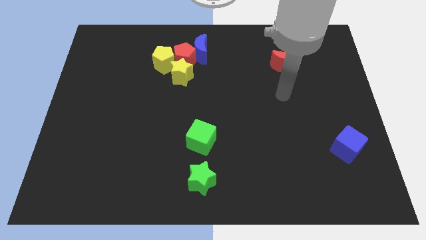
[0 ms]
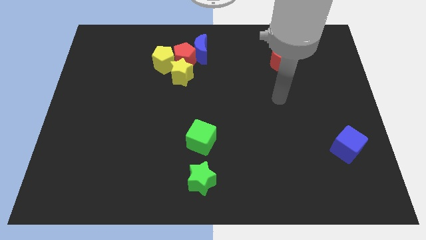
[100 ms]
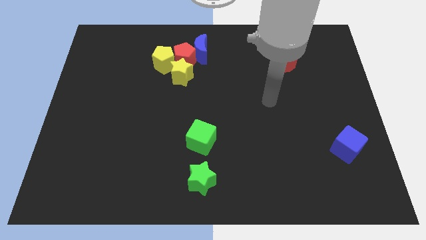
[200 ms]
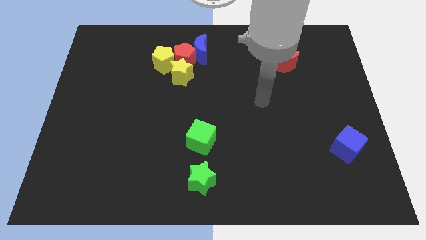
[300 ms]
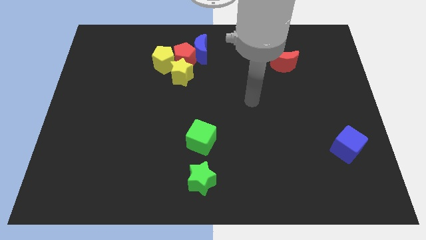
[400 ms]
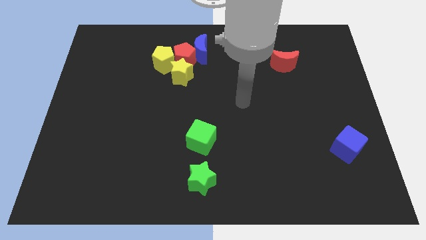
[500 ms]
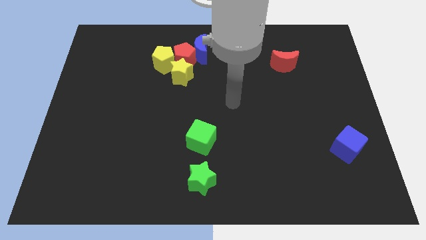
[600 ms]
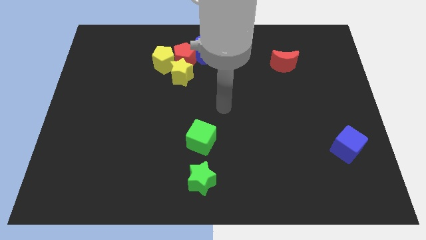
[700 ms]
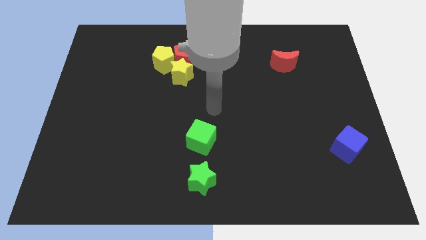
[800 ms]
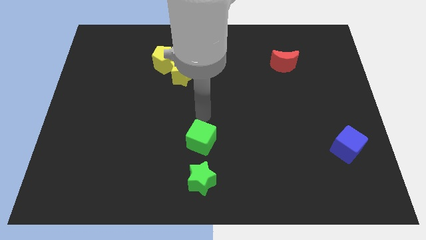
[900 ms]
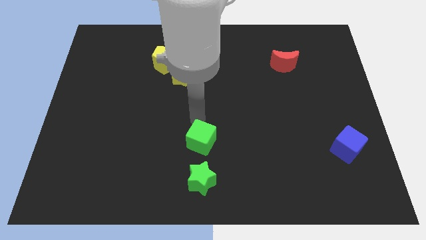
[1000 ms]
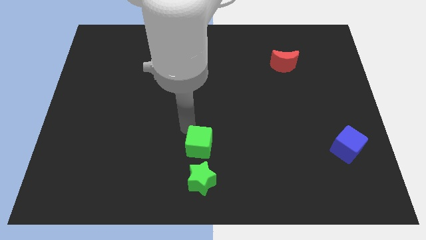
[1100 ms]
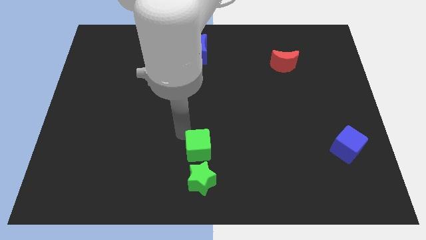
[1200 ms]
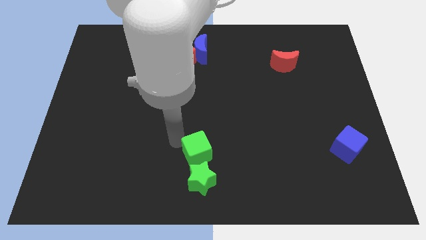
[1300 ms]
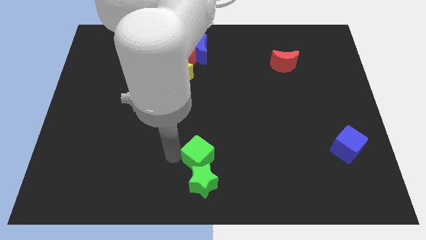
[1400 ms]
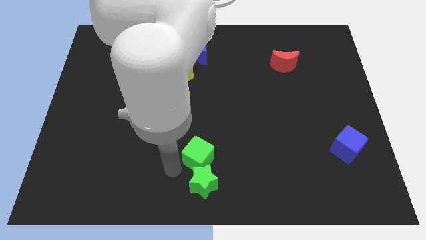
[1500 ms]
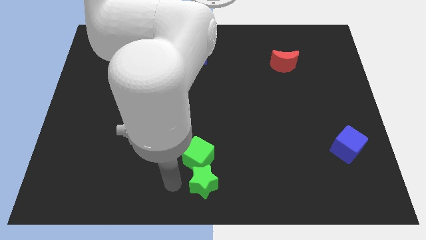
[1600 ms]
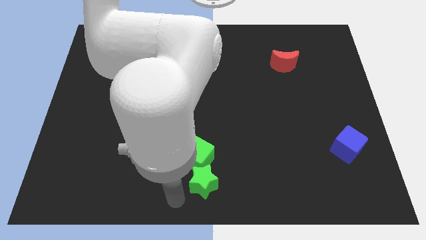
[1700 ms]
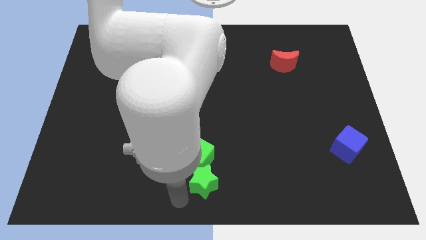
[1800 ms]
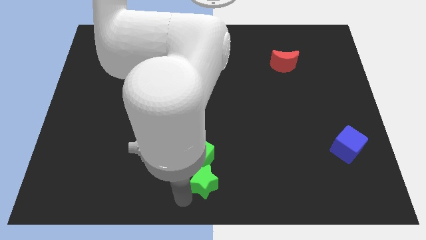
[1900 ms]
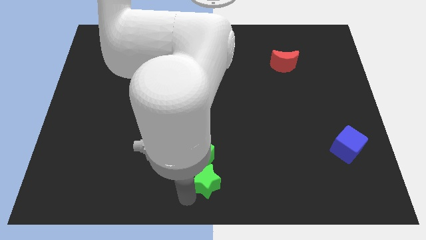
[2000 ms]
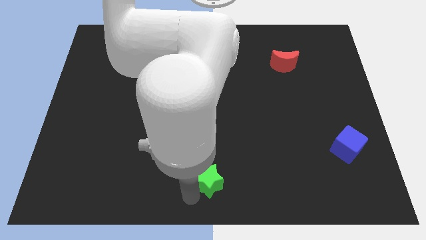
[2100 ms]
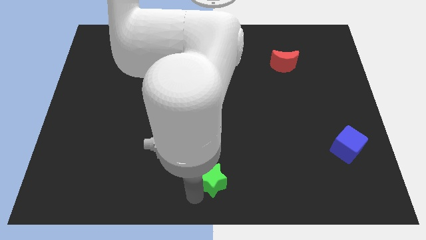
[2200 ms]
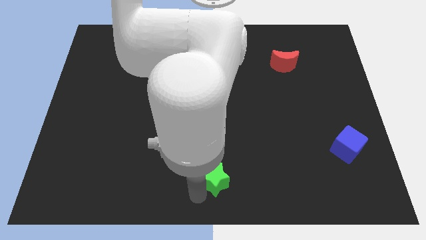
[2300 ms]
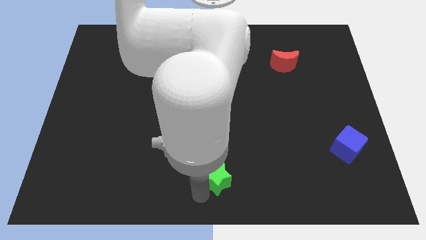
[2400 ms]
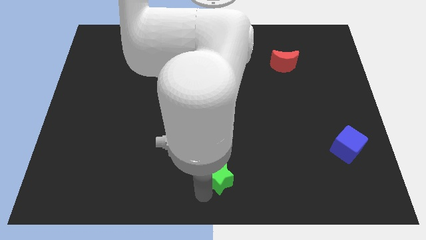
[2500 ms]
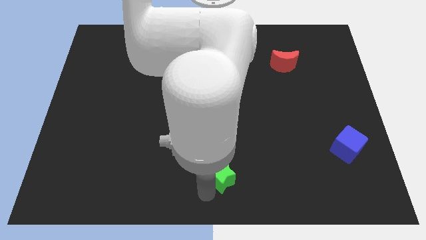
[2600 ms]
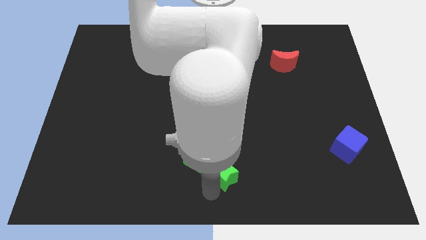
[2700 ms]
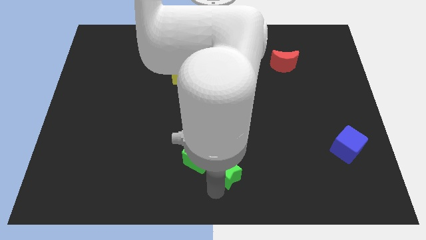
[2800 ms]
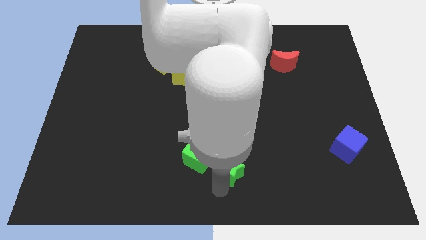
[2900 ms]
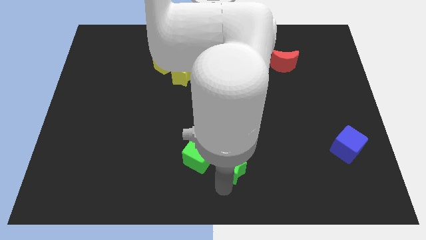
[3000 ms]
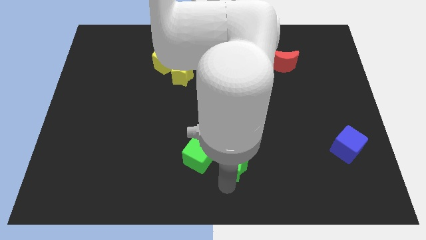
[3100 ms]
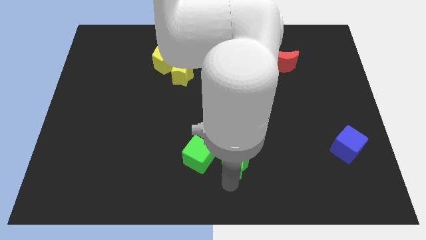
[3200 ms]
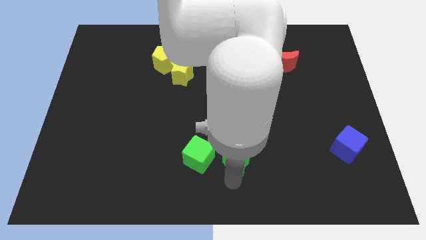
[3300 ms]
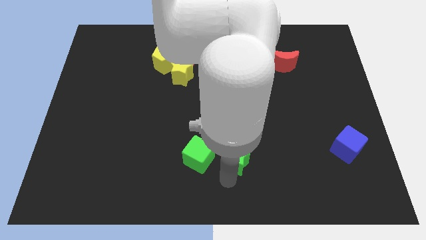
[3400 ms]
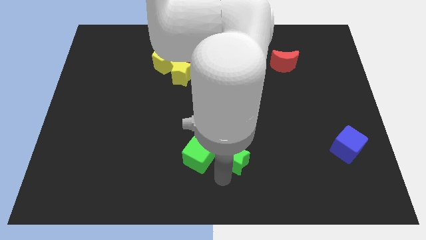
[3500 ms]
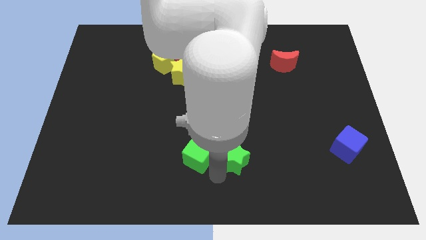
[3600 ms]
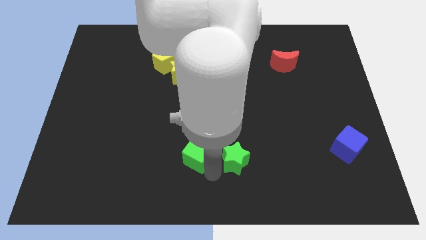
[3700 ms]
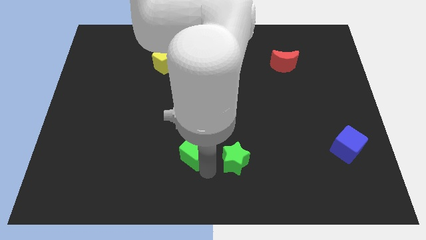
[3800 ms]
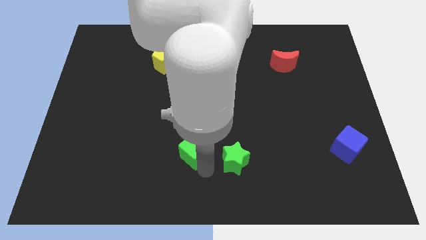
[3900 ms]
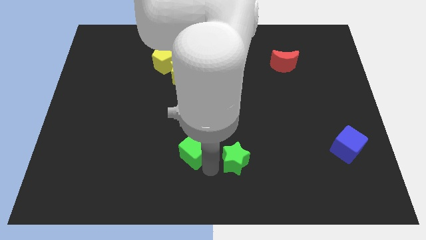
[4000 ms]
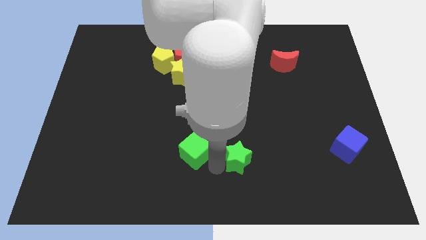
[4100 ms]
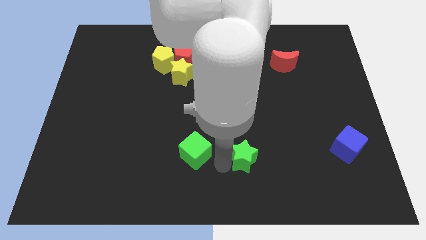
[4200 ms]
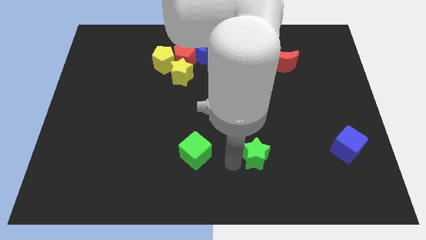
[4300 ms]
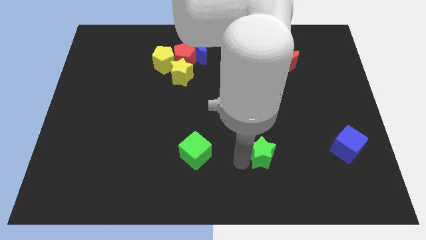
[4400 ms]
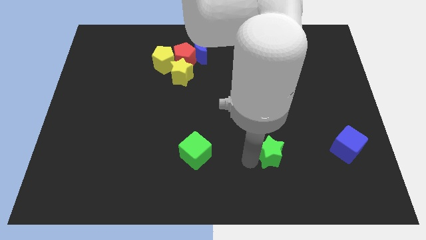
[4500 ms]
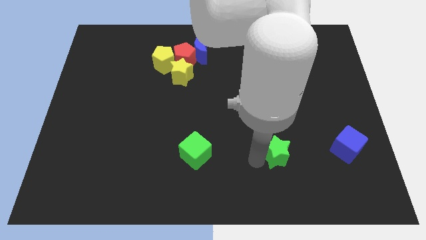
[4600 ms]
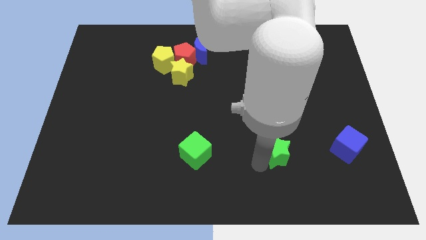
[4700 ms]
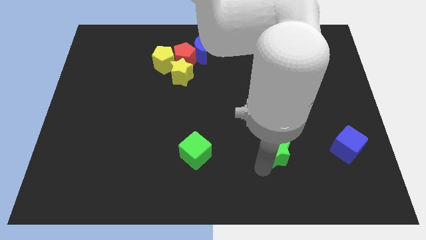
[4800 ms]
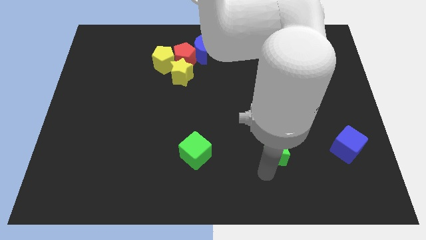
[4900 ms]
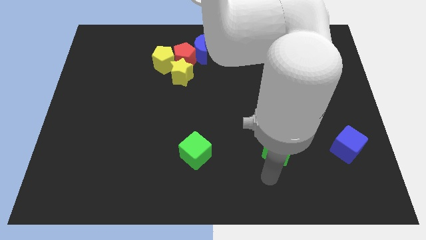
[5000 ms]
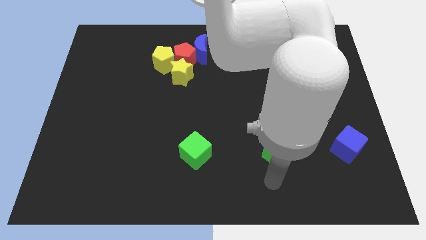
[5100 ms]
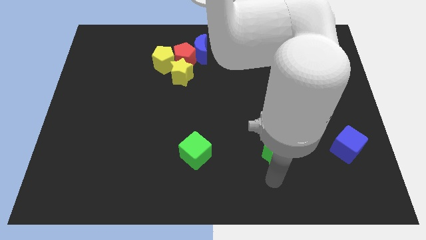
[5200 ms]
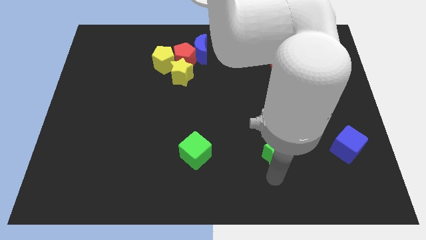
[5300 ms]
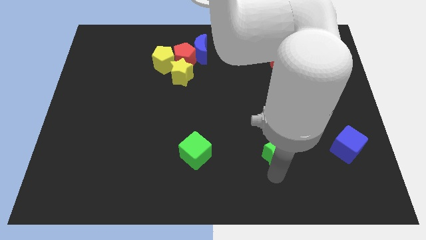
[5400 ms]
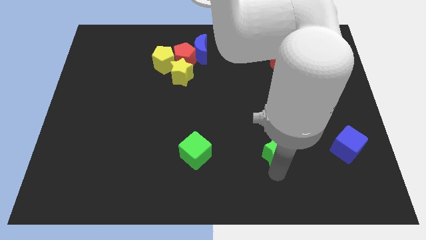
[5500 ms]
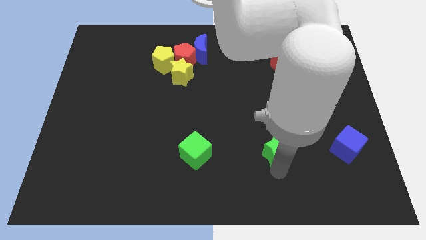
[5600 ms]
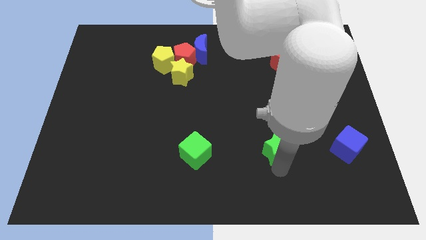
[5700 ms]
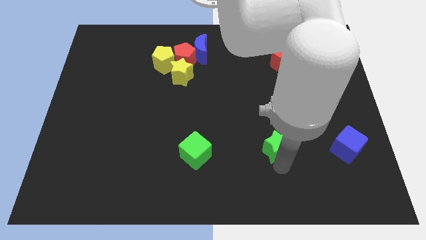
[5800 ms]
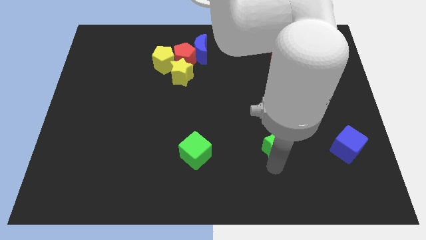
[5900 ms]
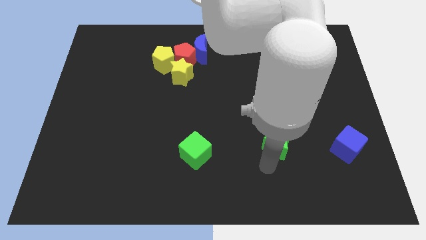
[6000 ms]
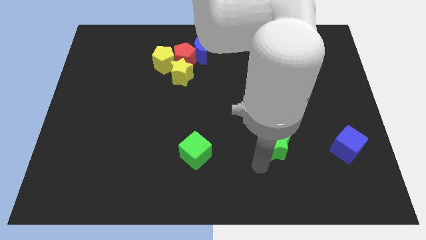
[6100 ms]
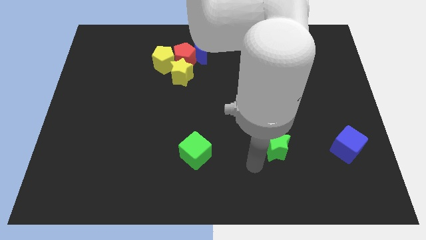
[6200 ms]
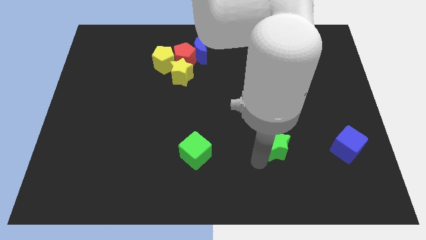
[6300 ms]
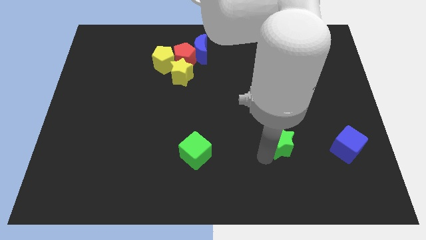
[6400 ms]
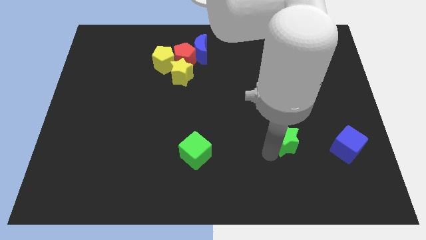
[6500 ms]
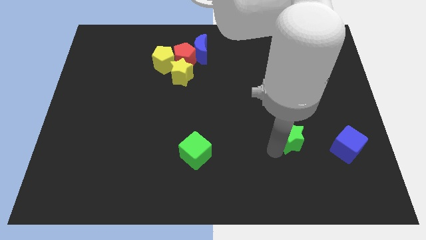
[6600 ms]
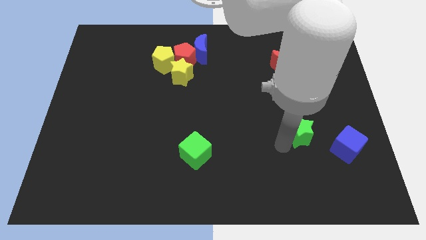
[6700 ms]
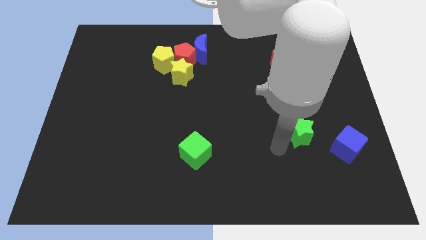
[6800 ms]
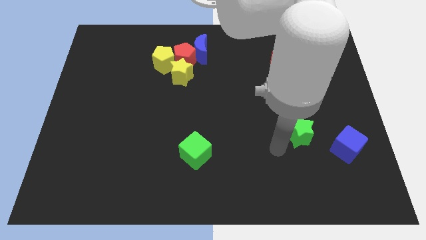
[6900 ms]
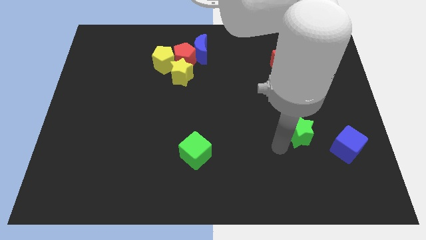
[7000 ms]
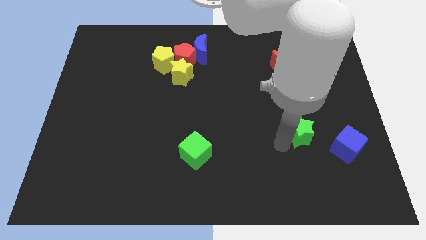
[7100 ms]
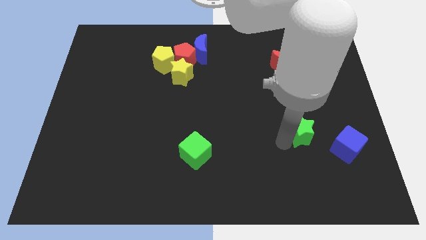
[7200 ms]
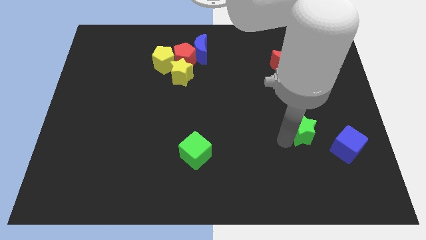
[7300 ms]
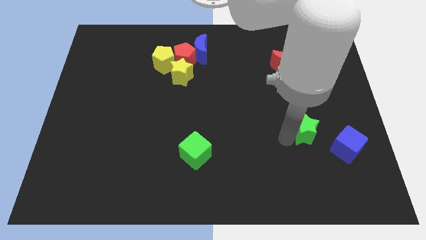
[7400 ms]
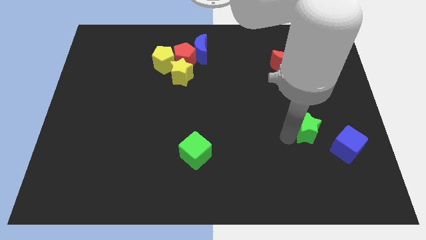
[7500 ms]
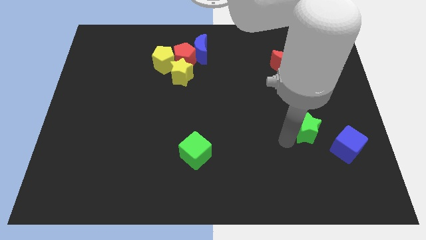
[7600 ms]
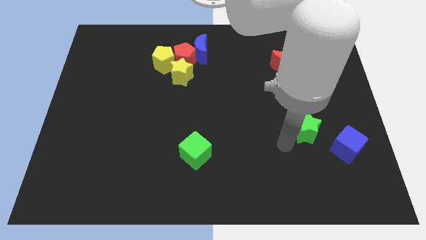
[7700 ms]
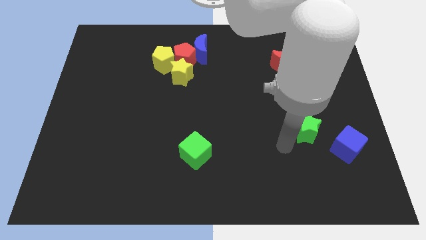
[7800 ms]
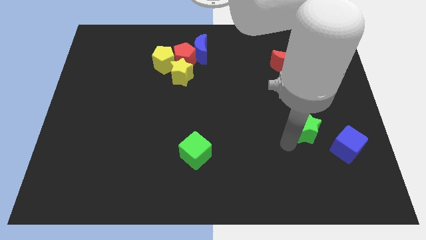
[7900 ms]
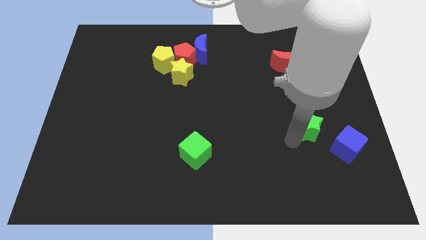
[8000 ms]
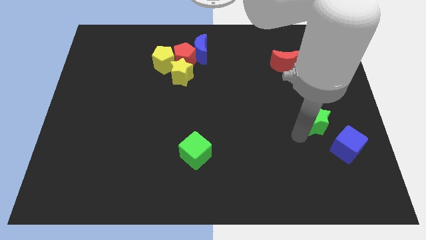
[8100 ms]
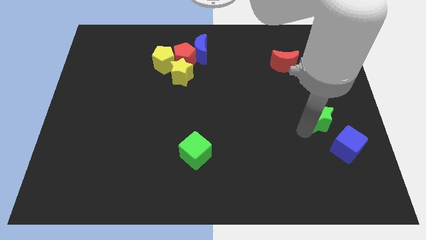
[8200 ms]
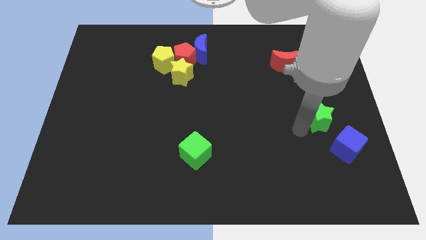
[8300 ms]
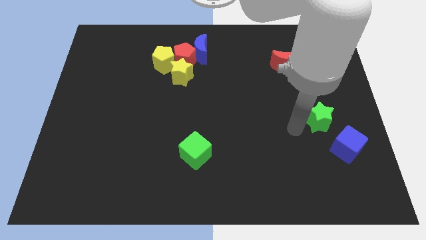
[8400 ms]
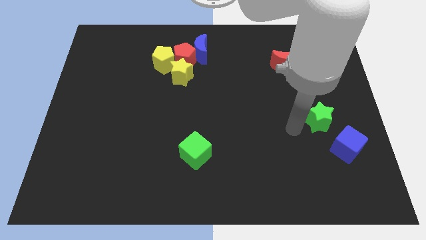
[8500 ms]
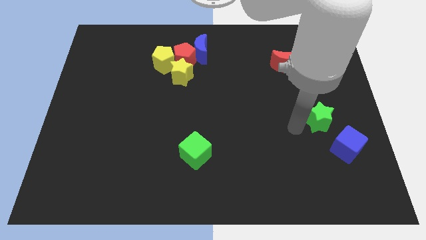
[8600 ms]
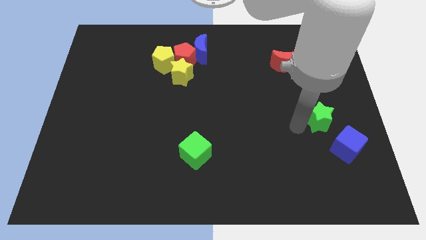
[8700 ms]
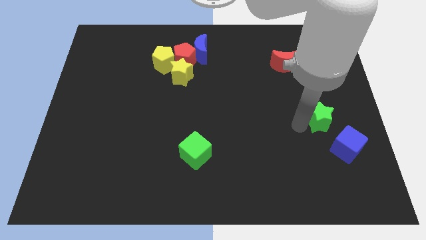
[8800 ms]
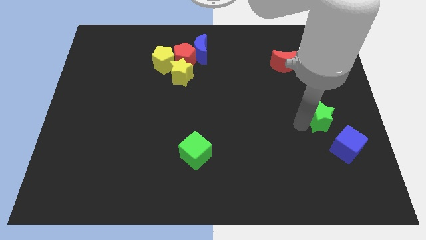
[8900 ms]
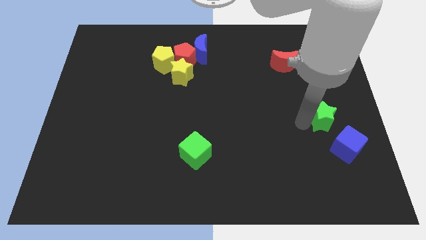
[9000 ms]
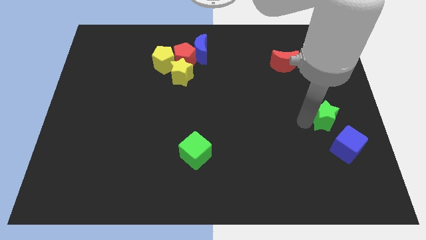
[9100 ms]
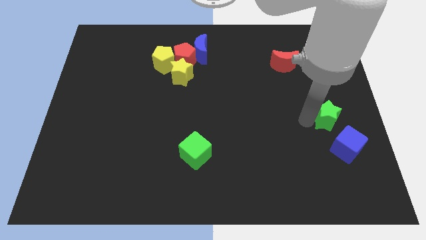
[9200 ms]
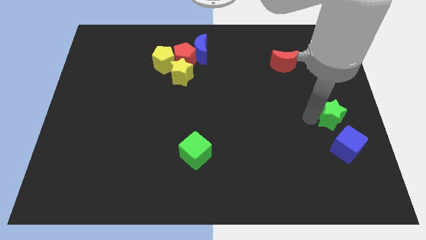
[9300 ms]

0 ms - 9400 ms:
put the green star to the right side
